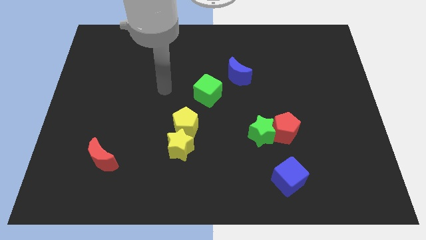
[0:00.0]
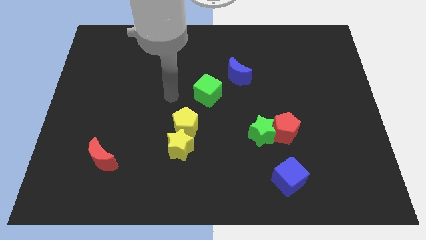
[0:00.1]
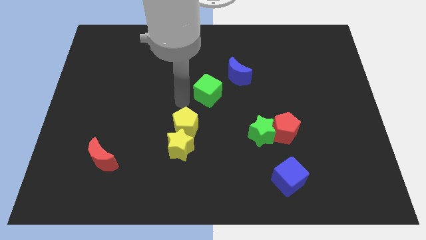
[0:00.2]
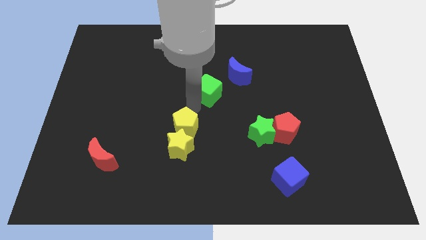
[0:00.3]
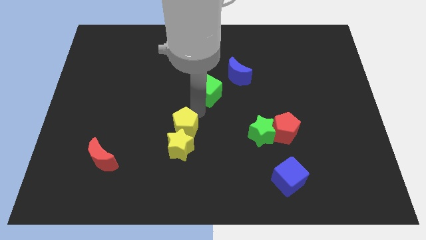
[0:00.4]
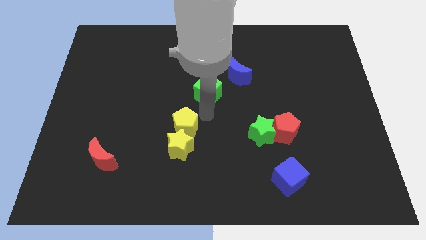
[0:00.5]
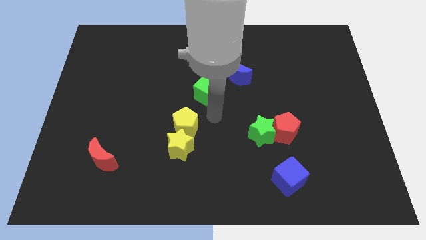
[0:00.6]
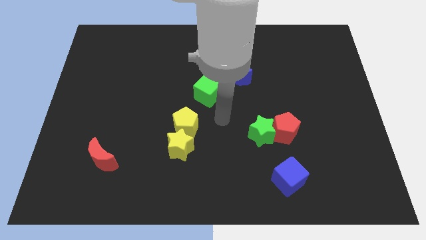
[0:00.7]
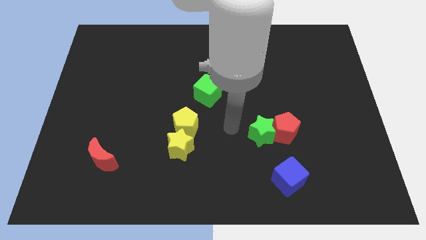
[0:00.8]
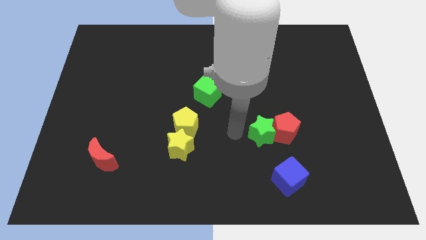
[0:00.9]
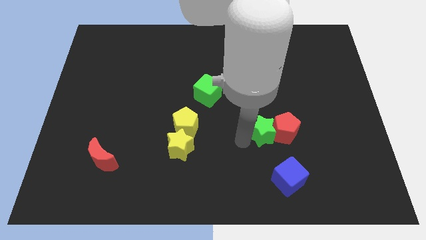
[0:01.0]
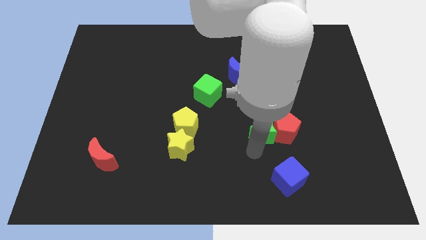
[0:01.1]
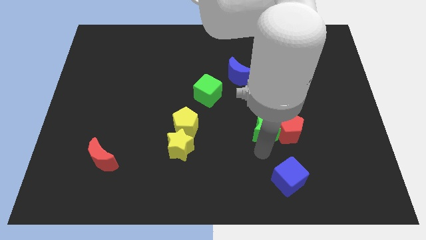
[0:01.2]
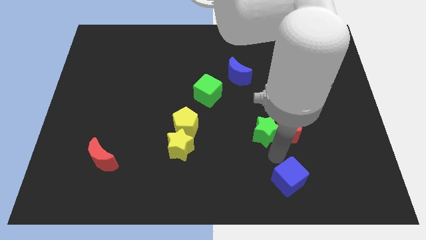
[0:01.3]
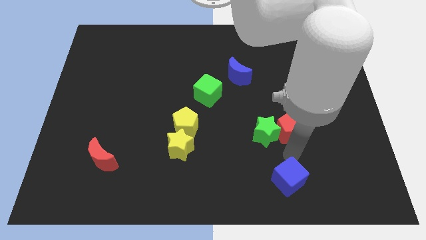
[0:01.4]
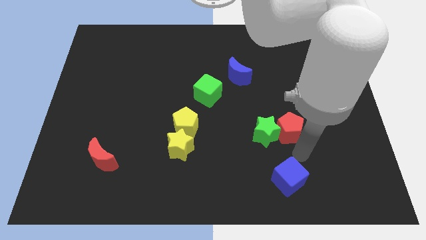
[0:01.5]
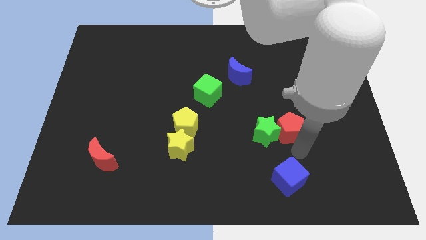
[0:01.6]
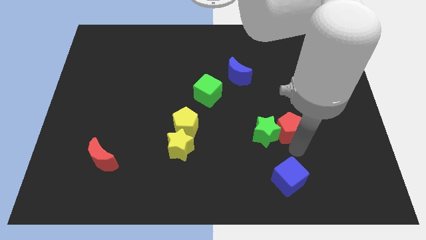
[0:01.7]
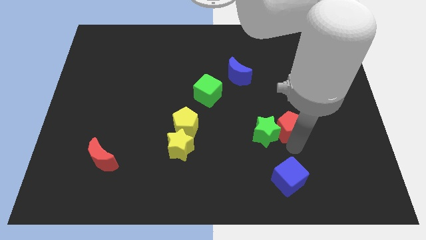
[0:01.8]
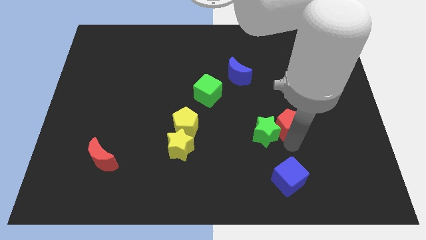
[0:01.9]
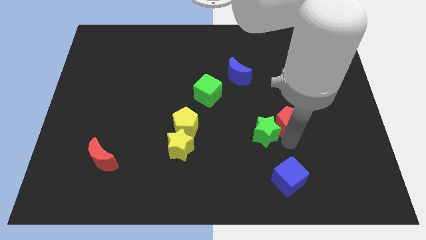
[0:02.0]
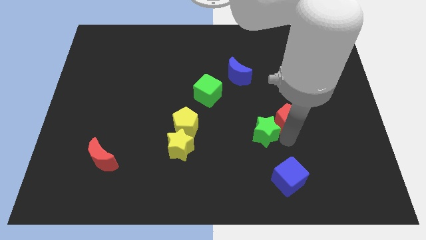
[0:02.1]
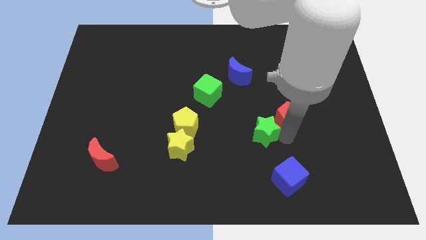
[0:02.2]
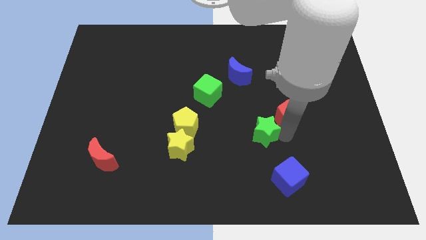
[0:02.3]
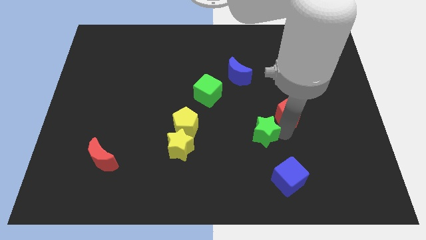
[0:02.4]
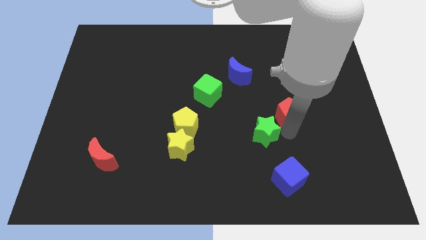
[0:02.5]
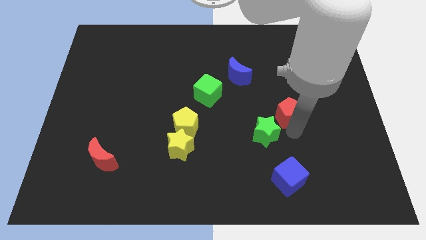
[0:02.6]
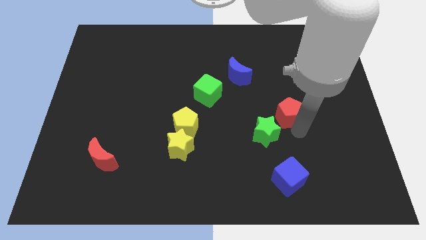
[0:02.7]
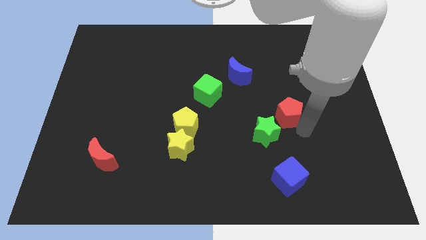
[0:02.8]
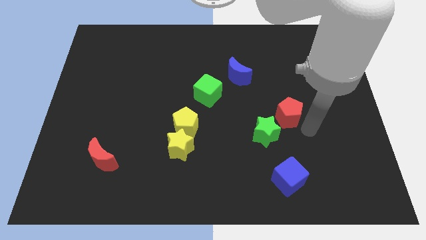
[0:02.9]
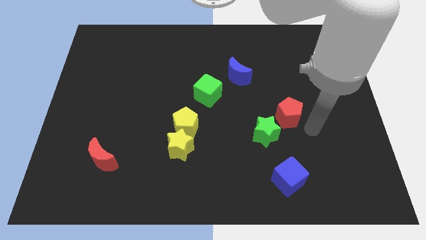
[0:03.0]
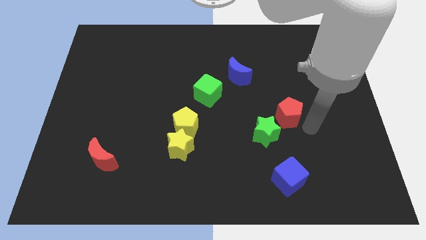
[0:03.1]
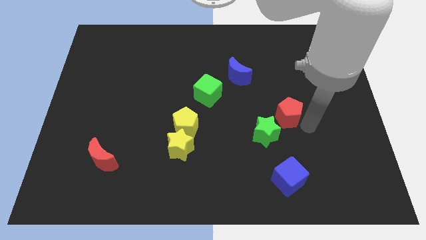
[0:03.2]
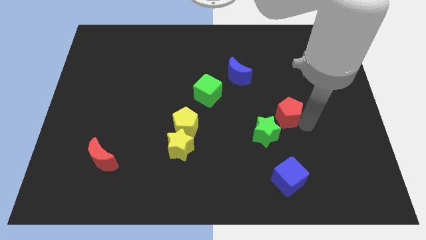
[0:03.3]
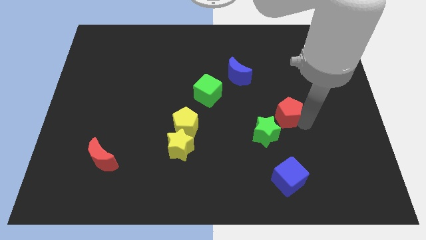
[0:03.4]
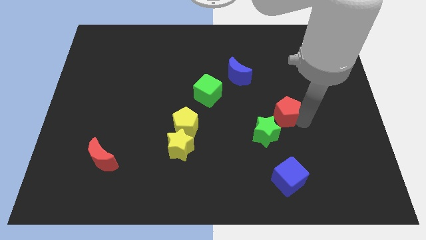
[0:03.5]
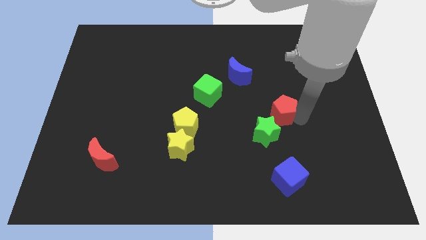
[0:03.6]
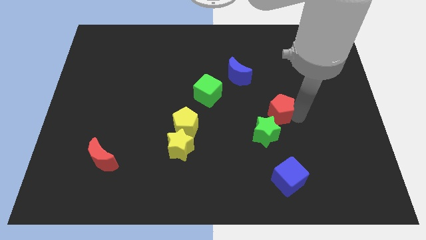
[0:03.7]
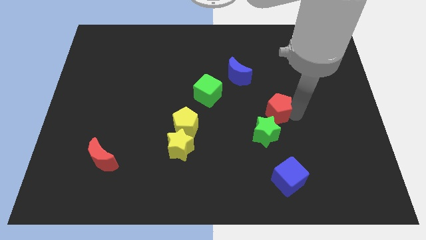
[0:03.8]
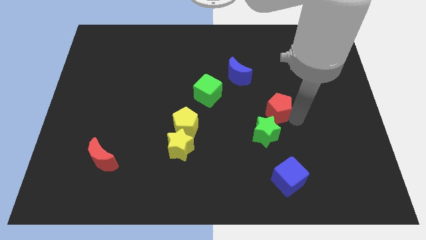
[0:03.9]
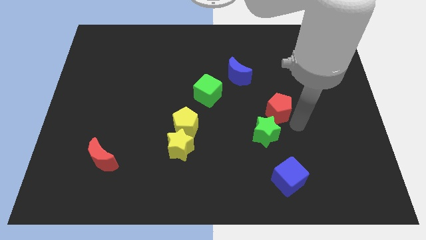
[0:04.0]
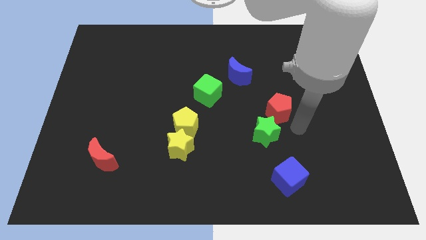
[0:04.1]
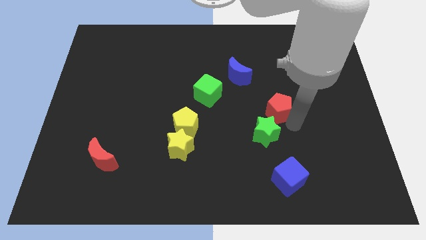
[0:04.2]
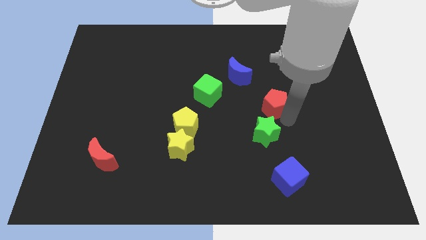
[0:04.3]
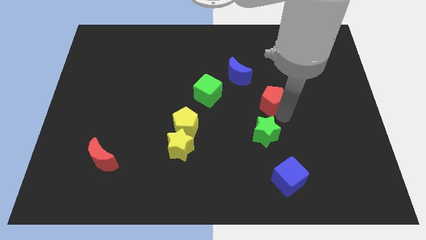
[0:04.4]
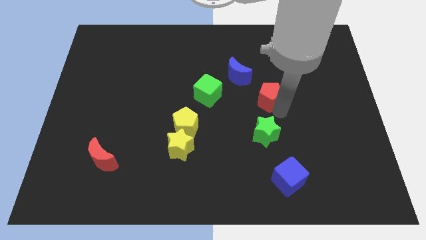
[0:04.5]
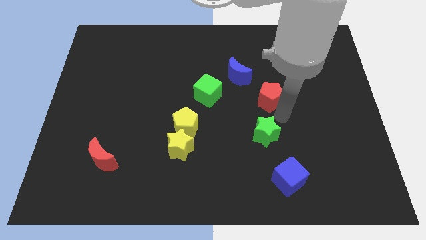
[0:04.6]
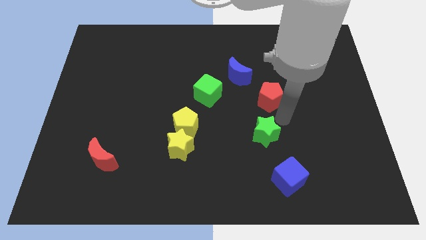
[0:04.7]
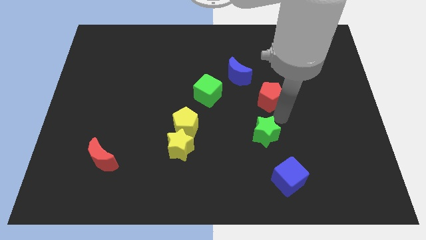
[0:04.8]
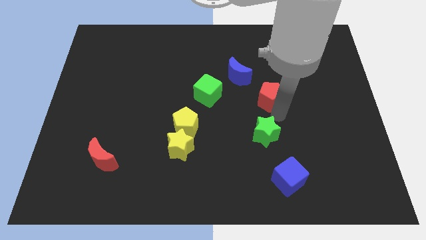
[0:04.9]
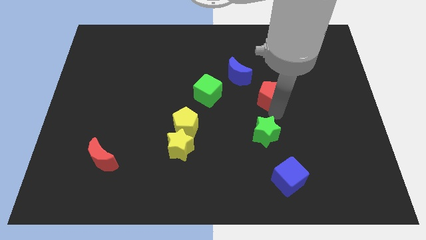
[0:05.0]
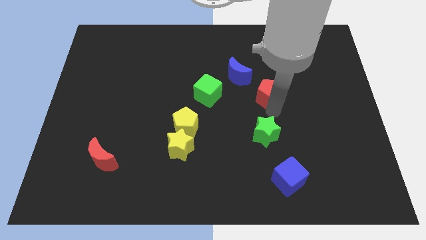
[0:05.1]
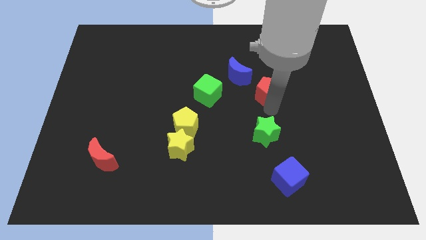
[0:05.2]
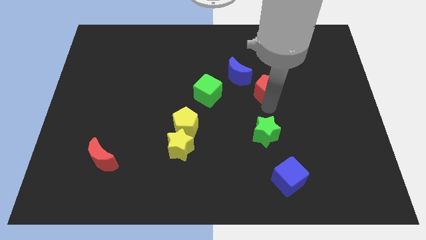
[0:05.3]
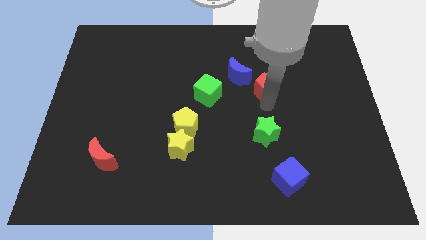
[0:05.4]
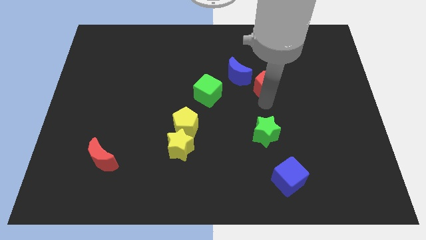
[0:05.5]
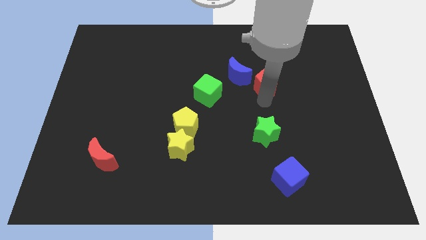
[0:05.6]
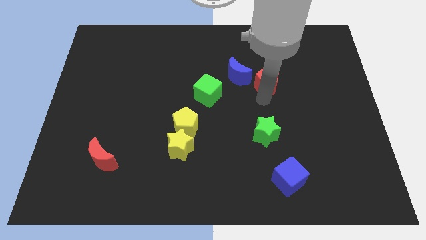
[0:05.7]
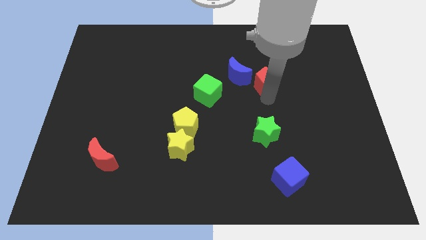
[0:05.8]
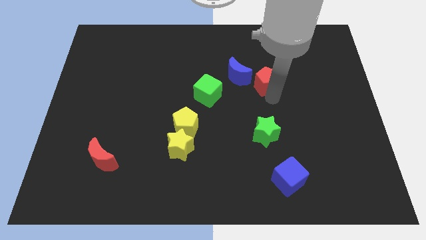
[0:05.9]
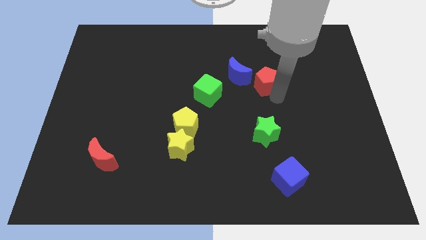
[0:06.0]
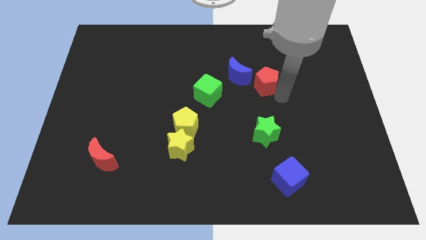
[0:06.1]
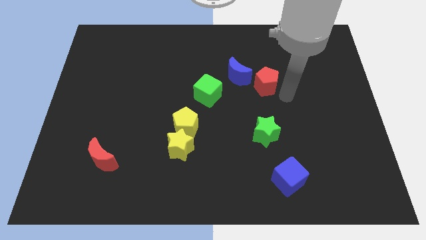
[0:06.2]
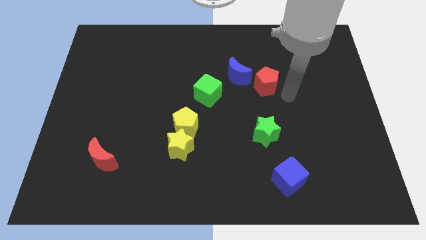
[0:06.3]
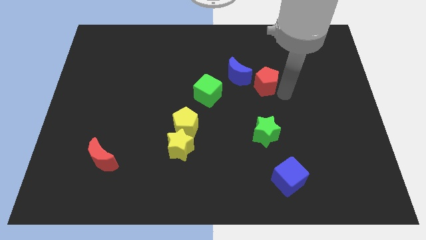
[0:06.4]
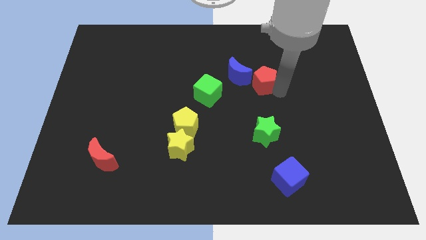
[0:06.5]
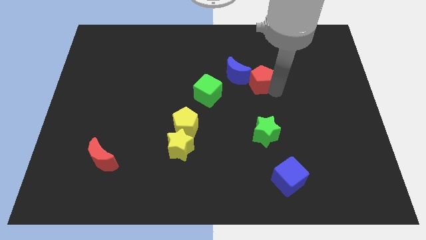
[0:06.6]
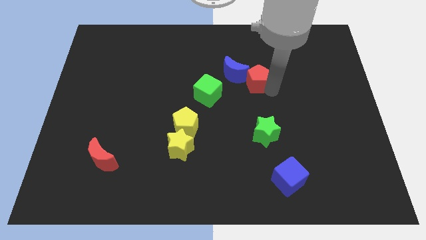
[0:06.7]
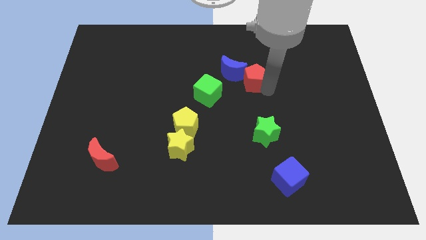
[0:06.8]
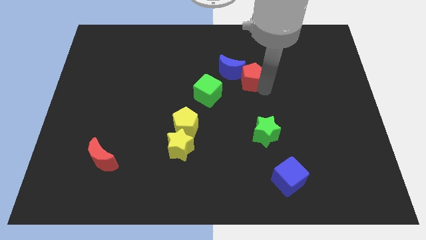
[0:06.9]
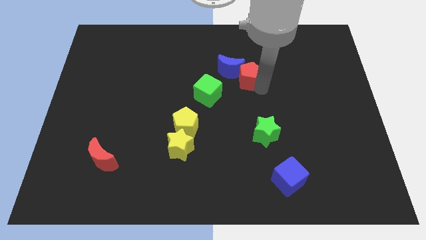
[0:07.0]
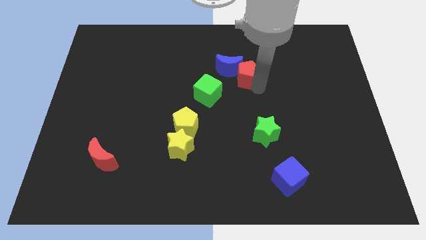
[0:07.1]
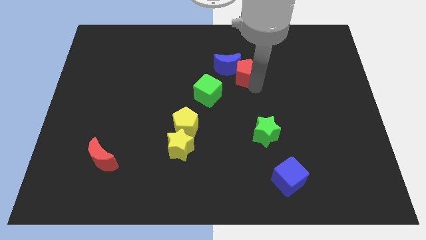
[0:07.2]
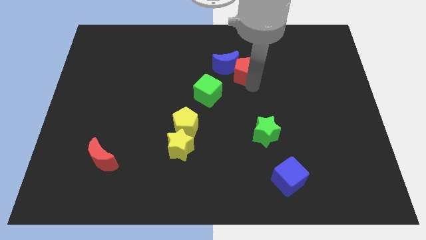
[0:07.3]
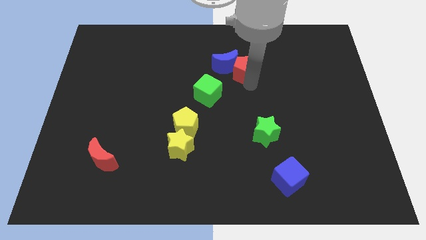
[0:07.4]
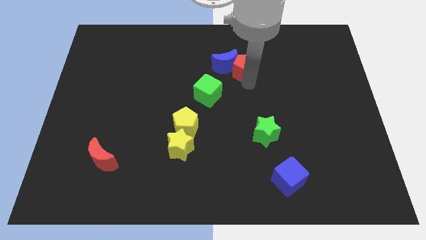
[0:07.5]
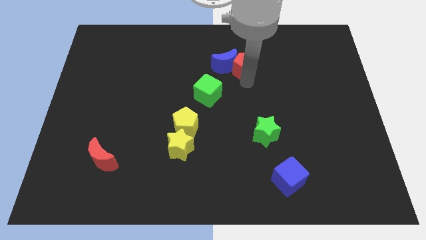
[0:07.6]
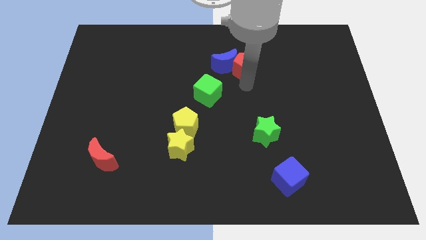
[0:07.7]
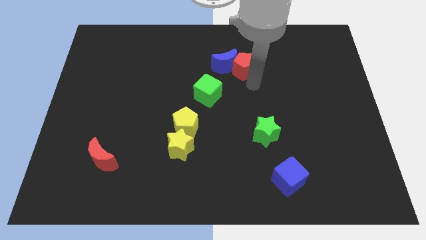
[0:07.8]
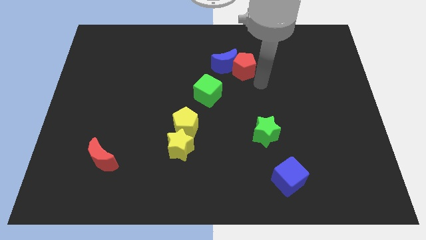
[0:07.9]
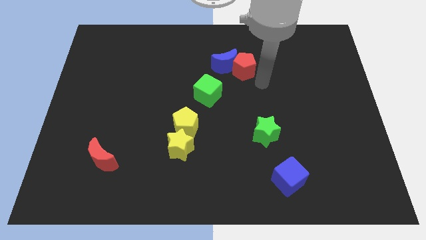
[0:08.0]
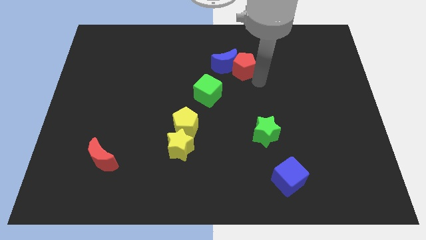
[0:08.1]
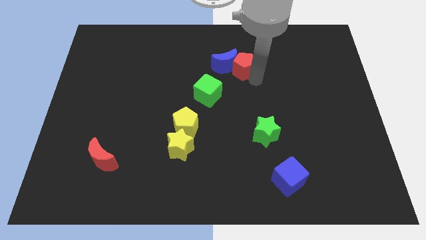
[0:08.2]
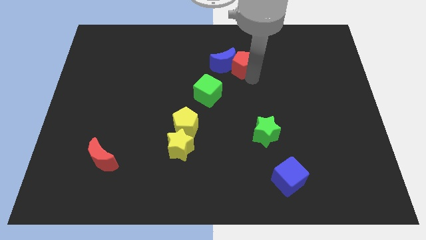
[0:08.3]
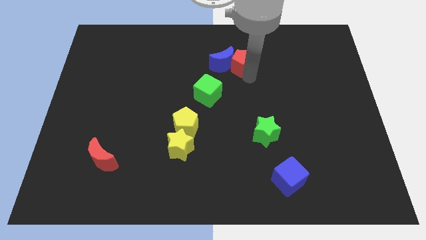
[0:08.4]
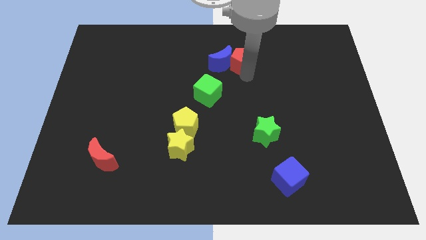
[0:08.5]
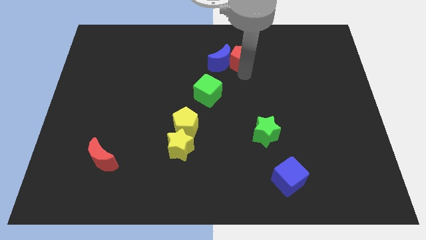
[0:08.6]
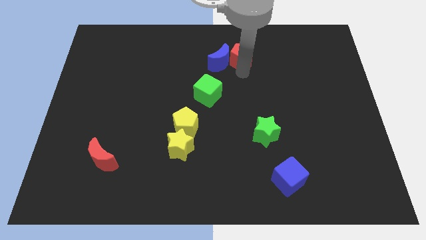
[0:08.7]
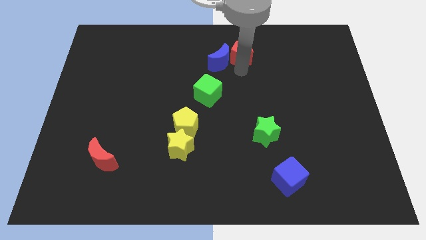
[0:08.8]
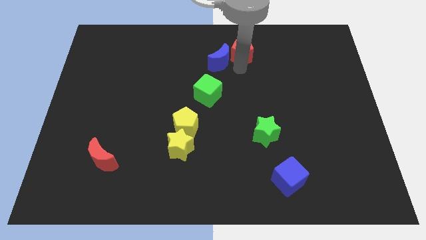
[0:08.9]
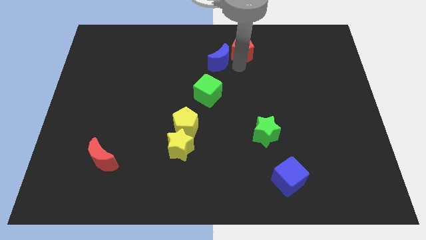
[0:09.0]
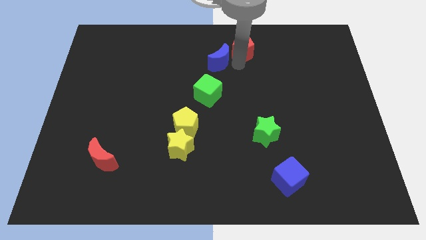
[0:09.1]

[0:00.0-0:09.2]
put the red pentagon to the towards your base
